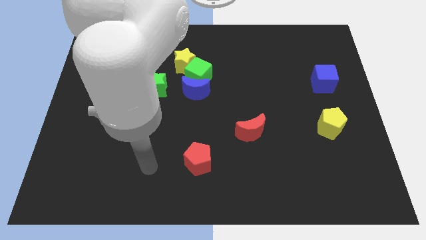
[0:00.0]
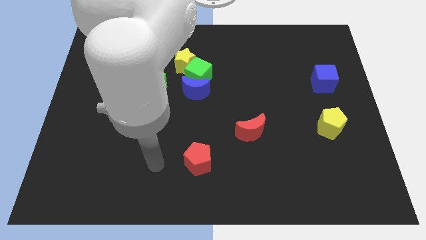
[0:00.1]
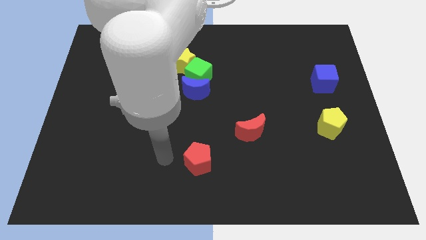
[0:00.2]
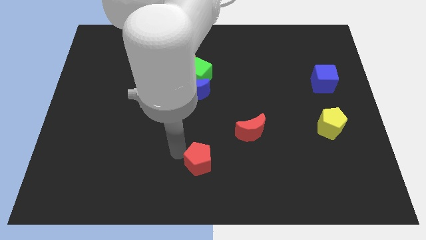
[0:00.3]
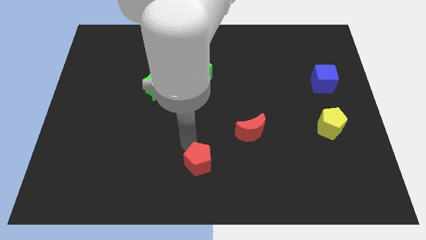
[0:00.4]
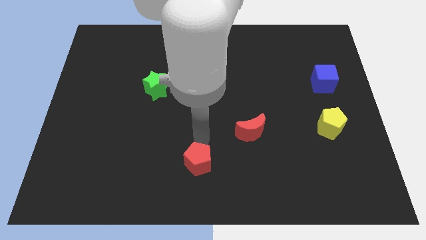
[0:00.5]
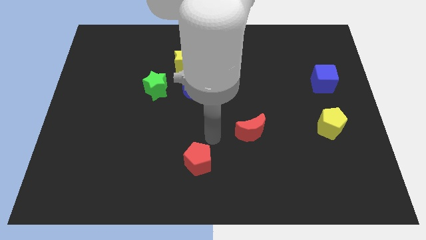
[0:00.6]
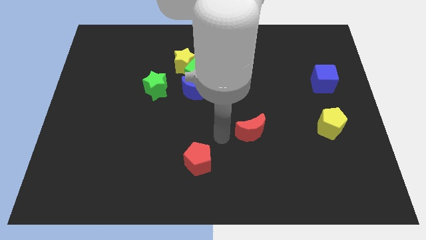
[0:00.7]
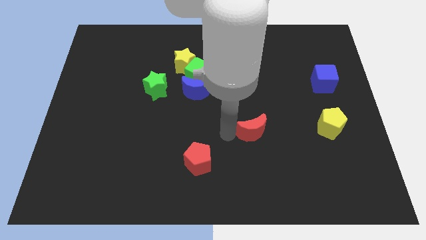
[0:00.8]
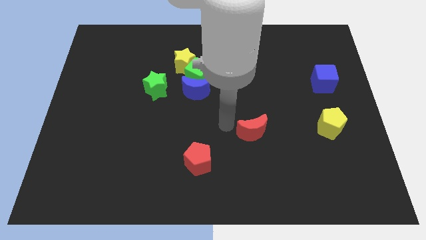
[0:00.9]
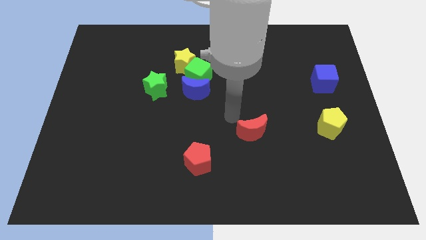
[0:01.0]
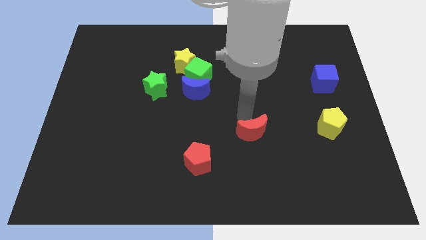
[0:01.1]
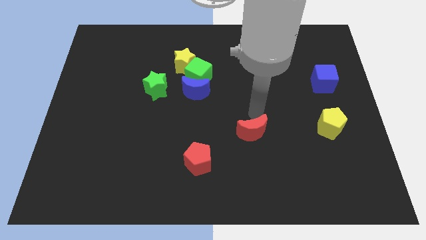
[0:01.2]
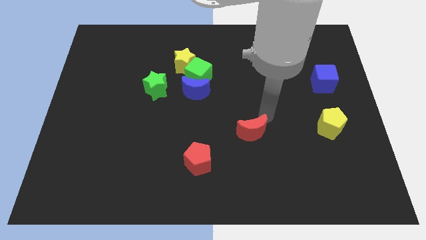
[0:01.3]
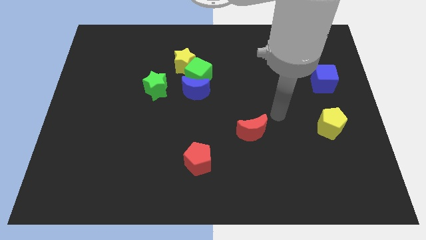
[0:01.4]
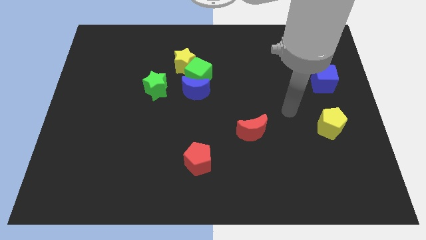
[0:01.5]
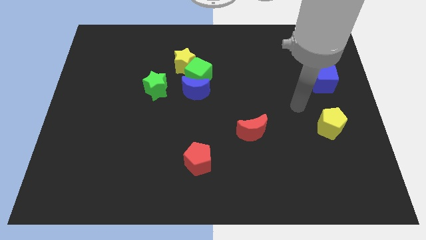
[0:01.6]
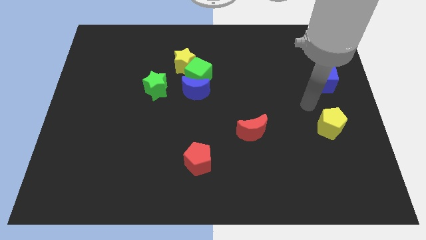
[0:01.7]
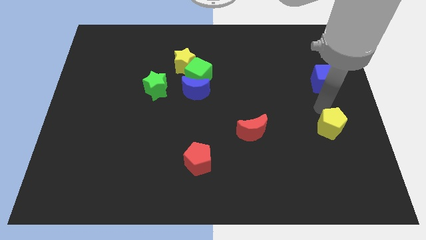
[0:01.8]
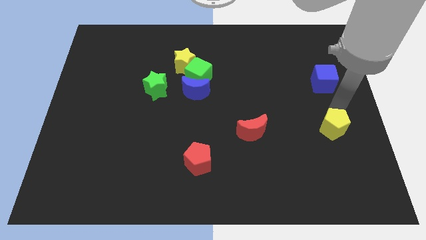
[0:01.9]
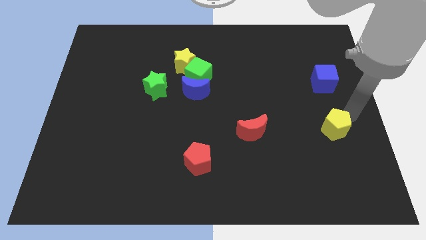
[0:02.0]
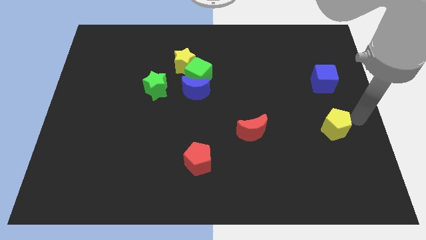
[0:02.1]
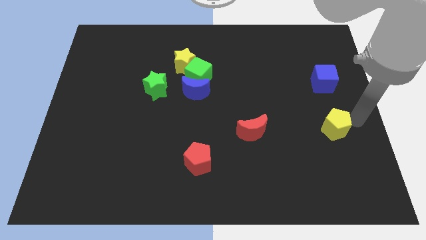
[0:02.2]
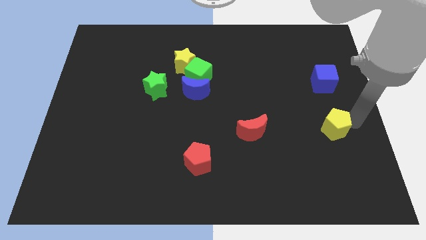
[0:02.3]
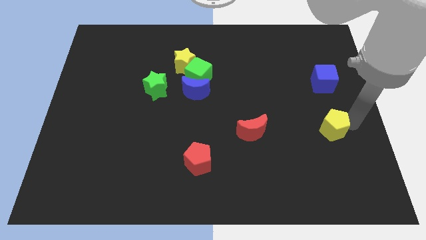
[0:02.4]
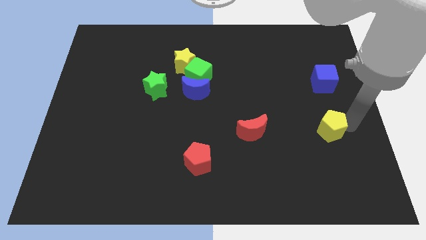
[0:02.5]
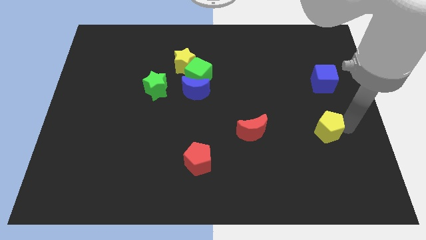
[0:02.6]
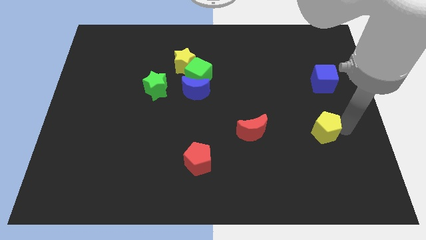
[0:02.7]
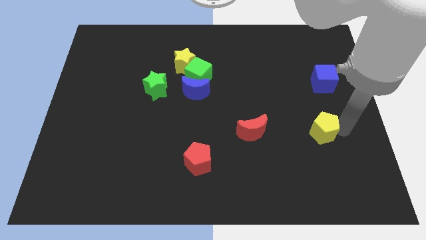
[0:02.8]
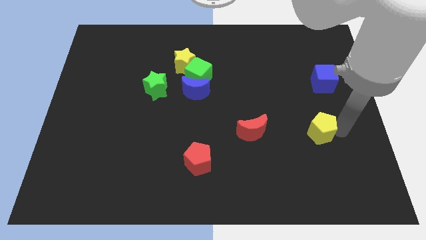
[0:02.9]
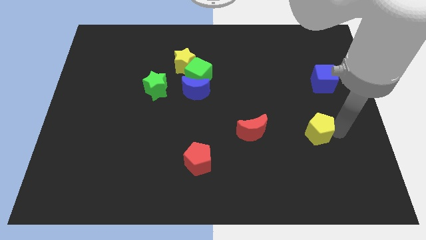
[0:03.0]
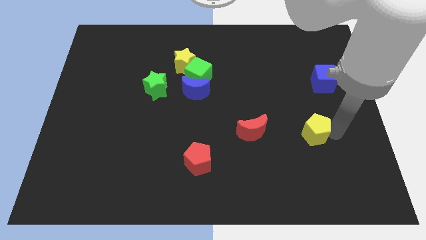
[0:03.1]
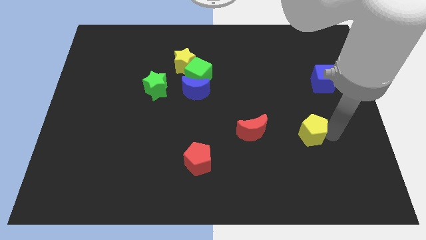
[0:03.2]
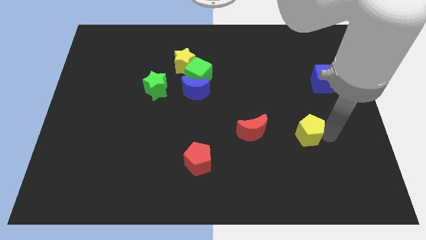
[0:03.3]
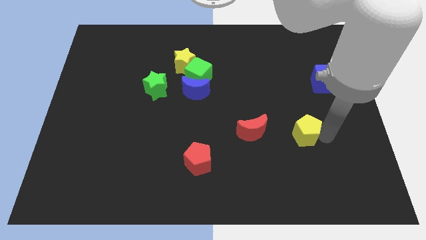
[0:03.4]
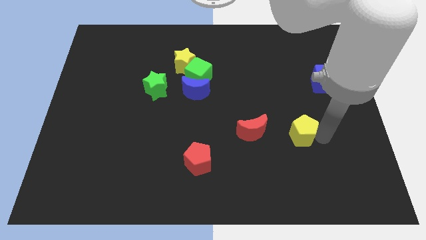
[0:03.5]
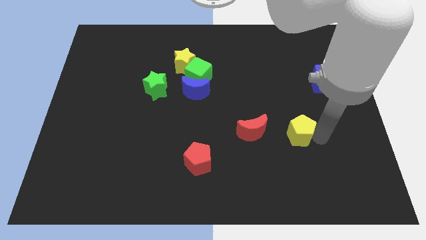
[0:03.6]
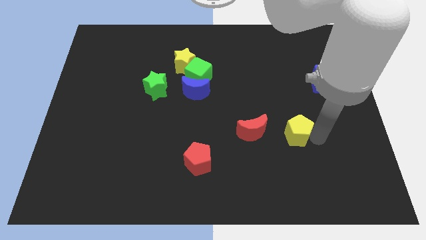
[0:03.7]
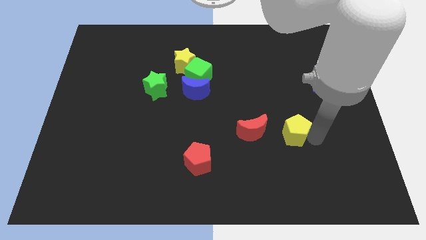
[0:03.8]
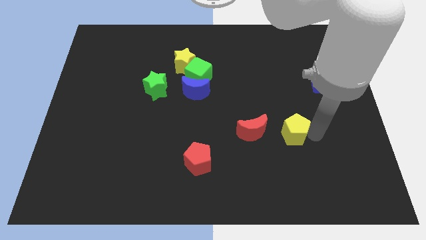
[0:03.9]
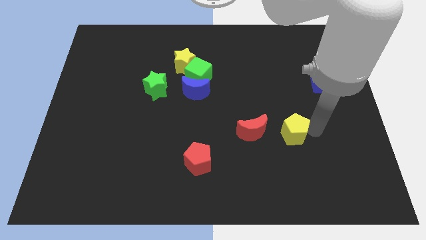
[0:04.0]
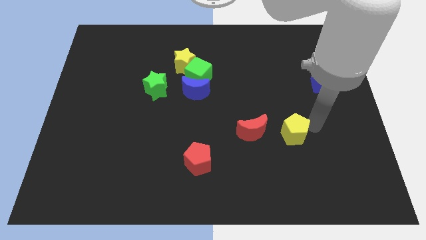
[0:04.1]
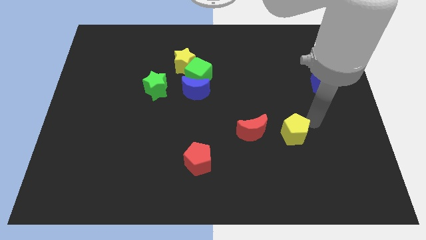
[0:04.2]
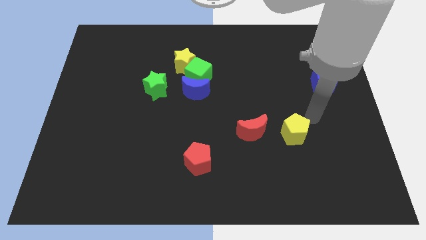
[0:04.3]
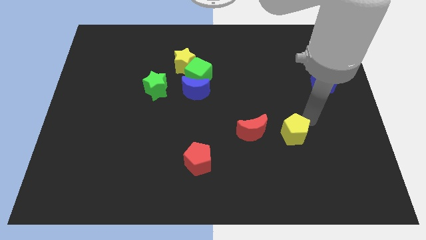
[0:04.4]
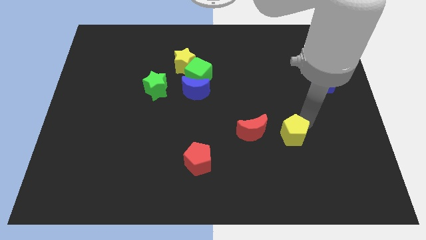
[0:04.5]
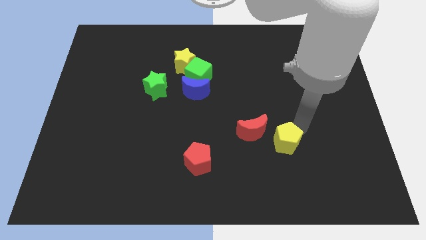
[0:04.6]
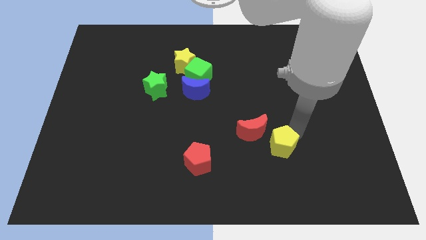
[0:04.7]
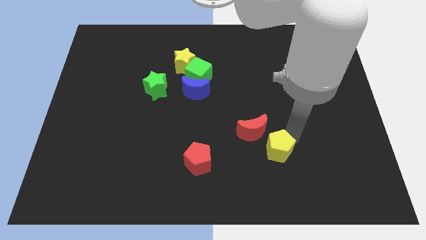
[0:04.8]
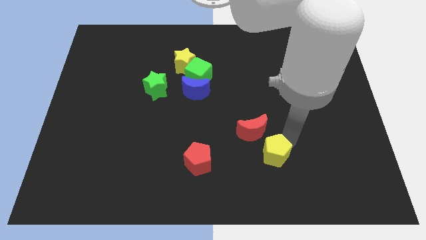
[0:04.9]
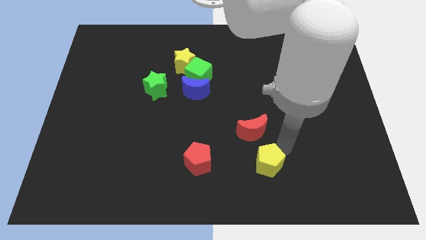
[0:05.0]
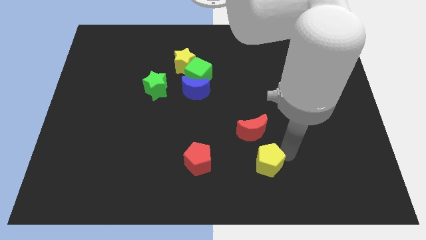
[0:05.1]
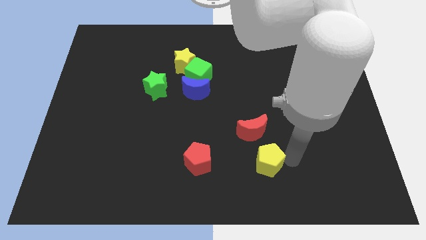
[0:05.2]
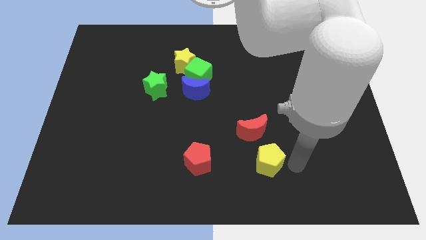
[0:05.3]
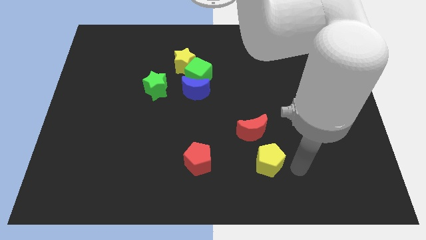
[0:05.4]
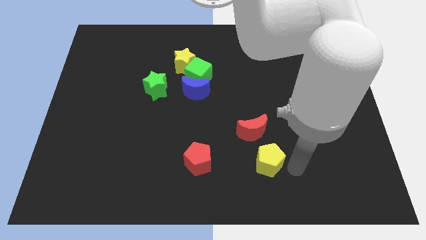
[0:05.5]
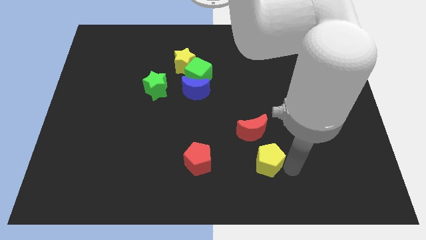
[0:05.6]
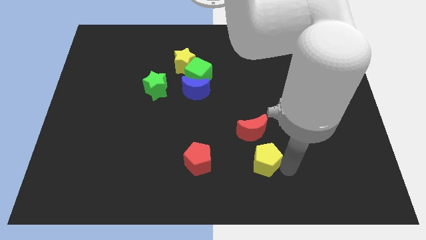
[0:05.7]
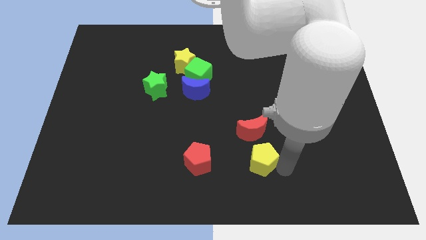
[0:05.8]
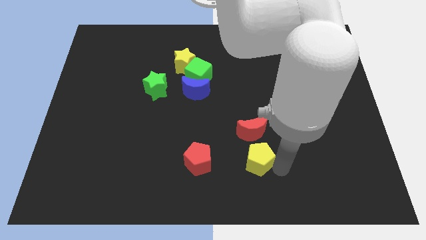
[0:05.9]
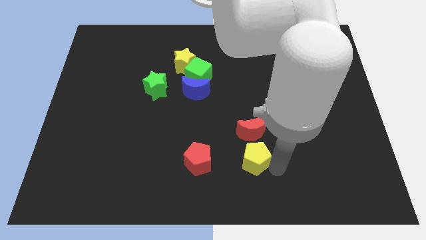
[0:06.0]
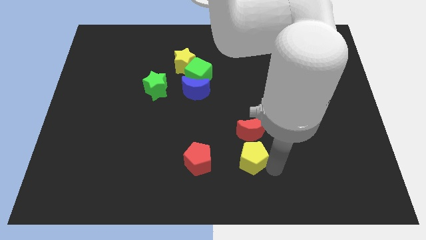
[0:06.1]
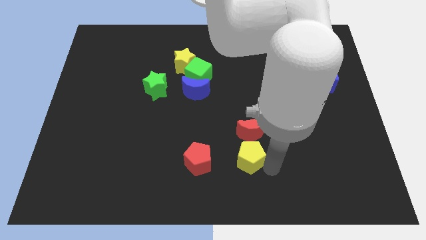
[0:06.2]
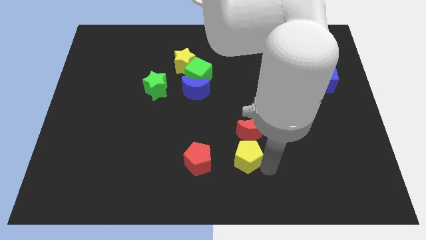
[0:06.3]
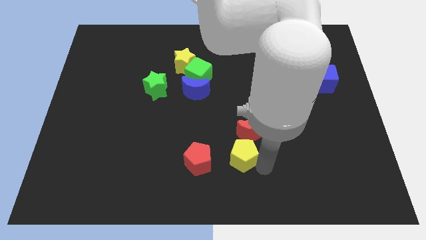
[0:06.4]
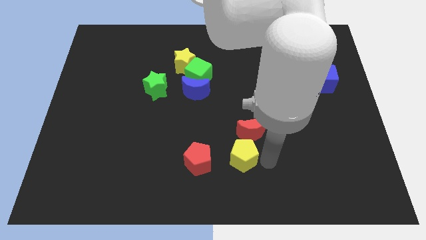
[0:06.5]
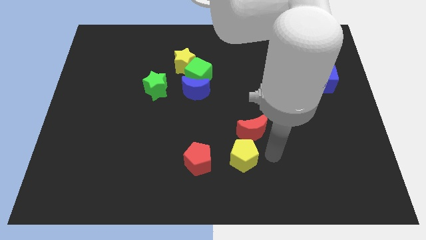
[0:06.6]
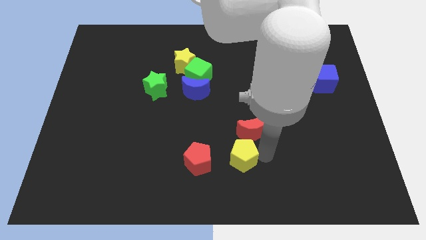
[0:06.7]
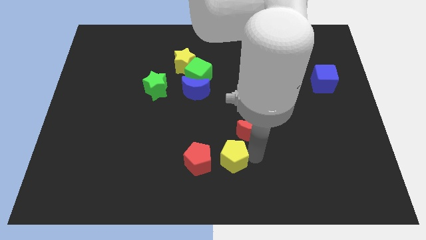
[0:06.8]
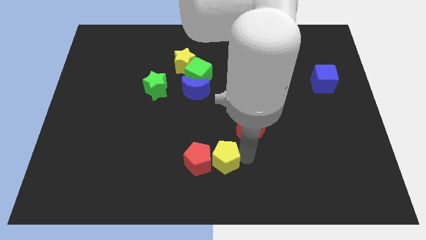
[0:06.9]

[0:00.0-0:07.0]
push the yellow pentagon next to the red pentagon
